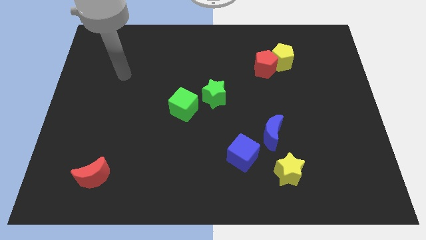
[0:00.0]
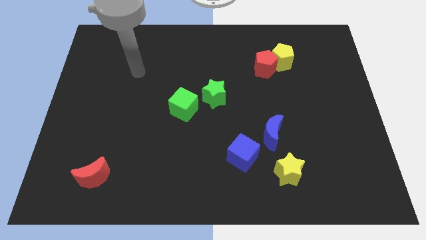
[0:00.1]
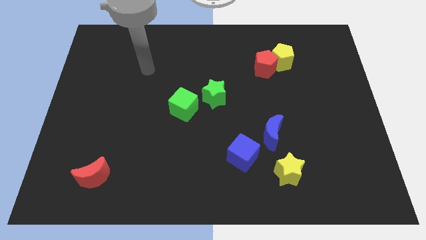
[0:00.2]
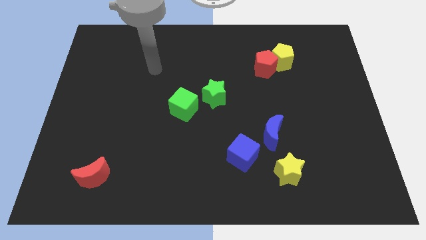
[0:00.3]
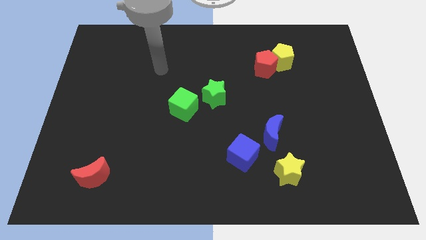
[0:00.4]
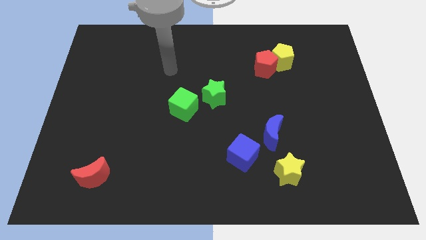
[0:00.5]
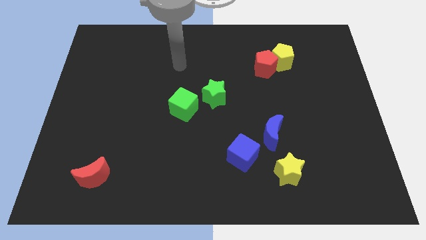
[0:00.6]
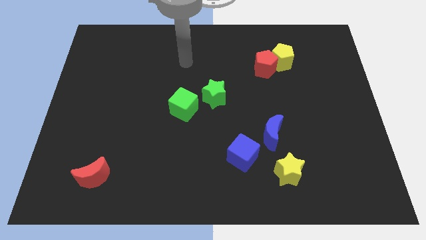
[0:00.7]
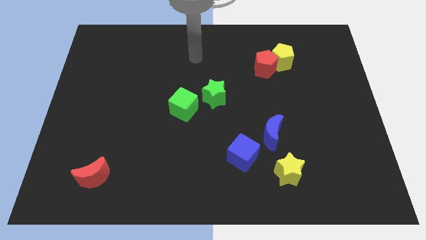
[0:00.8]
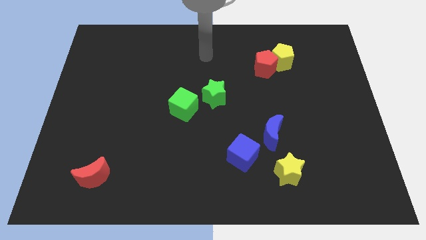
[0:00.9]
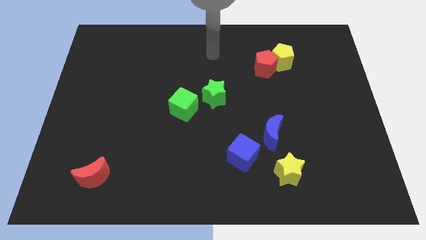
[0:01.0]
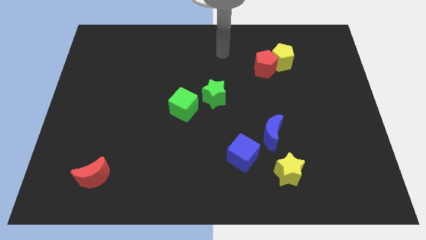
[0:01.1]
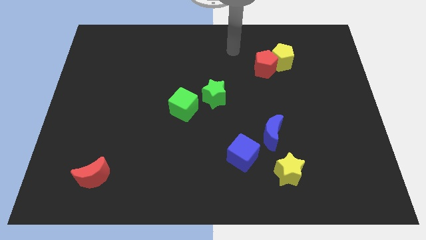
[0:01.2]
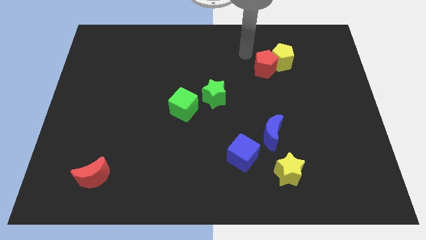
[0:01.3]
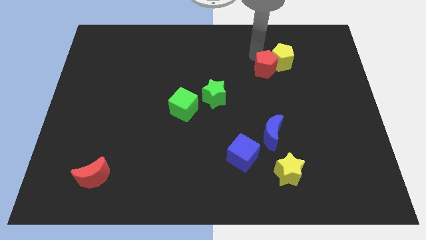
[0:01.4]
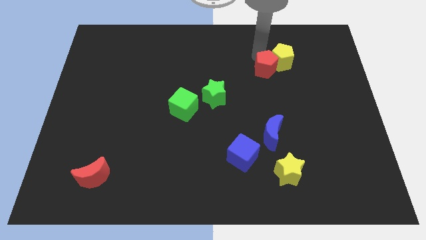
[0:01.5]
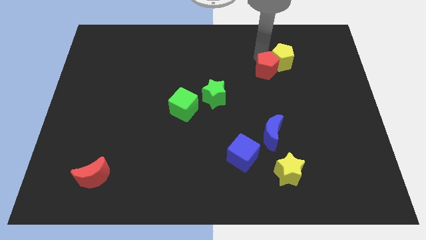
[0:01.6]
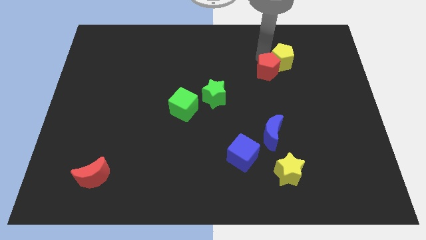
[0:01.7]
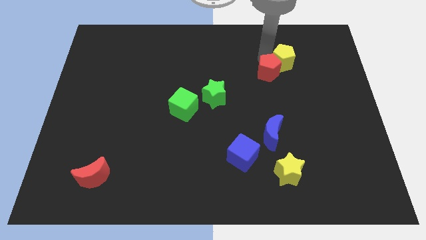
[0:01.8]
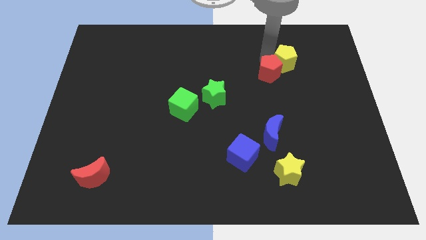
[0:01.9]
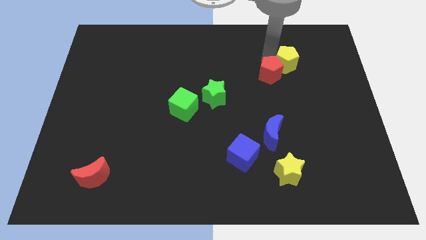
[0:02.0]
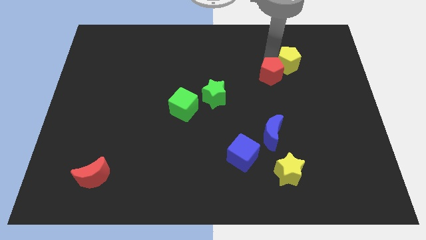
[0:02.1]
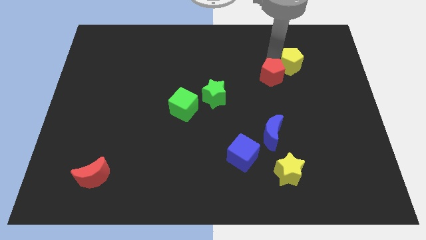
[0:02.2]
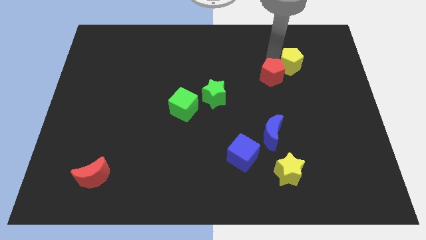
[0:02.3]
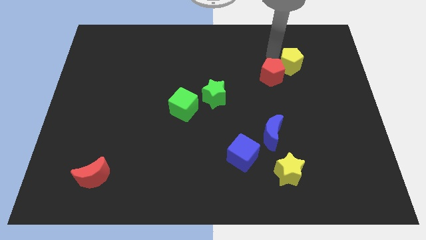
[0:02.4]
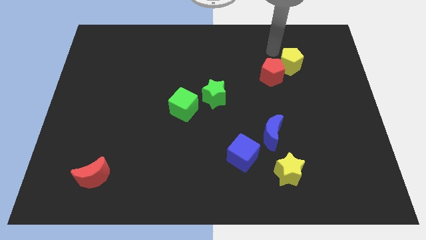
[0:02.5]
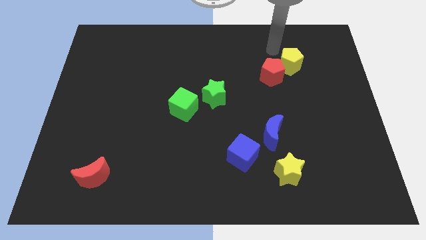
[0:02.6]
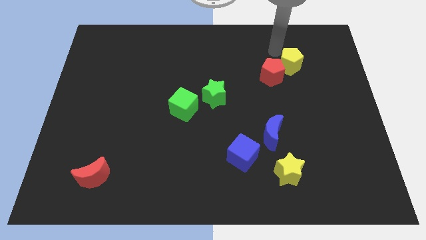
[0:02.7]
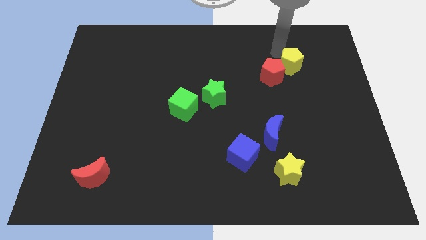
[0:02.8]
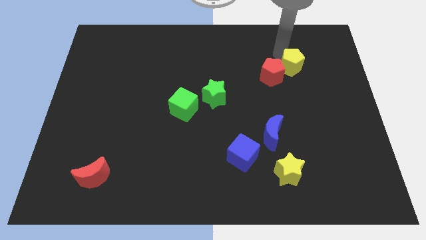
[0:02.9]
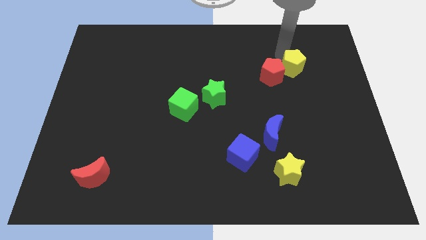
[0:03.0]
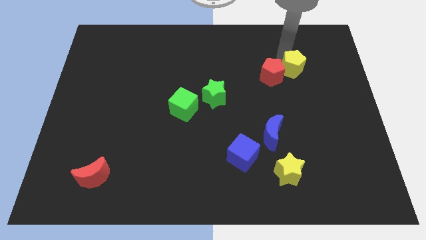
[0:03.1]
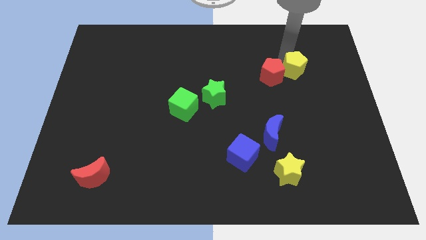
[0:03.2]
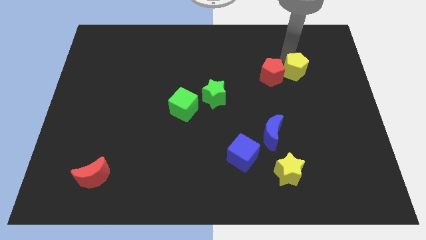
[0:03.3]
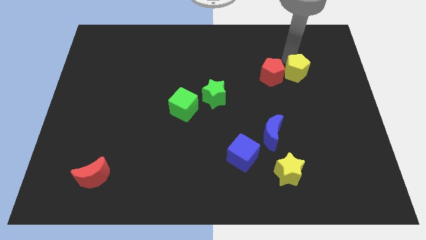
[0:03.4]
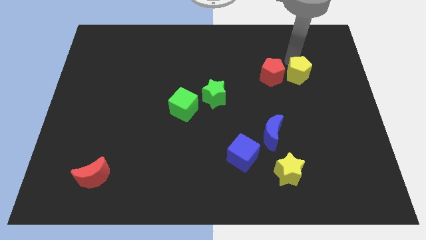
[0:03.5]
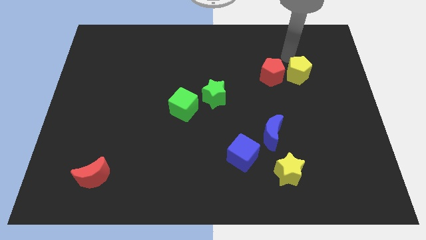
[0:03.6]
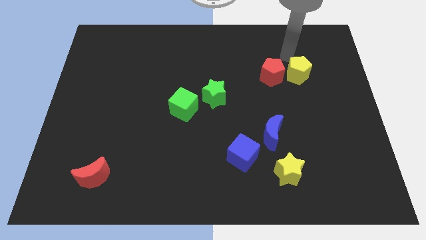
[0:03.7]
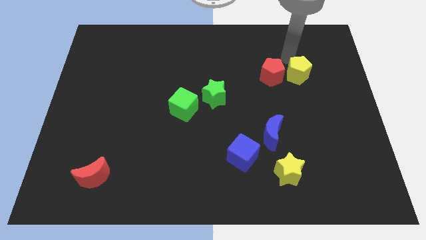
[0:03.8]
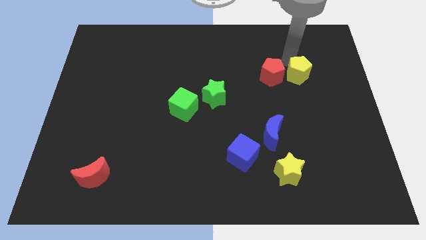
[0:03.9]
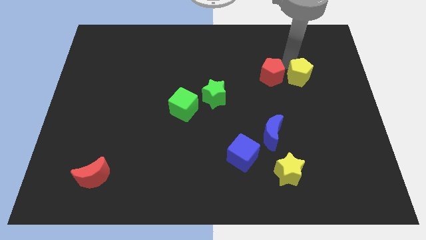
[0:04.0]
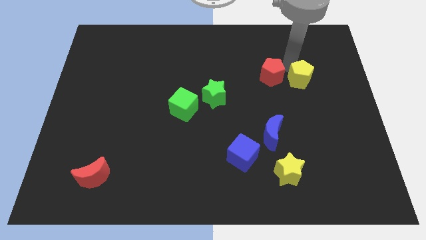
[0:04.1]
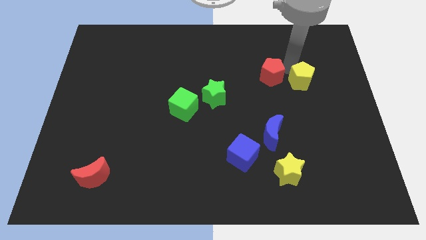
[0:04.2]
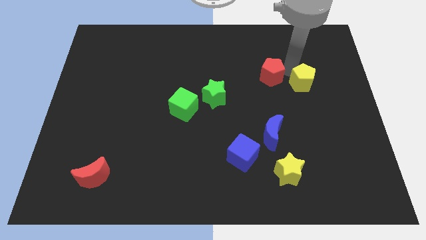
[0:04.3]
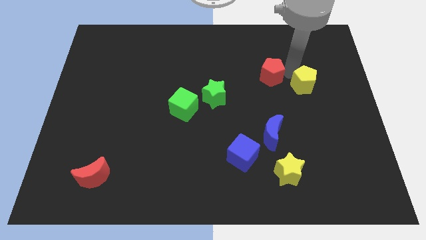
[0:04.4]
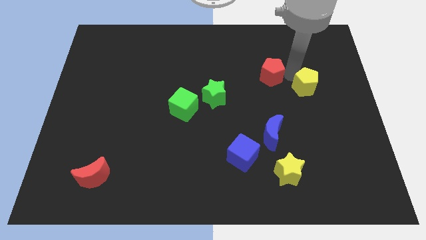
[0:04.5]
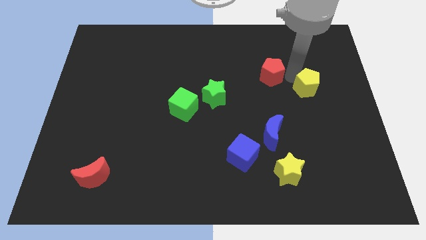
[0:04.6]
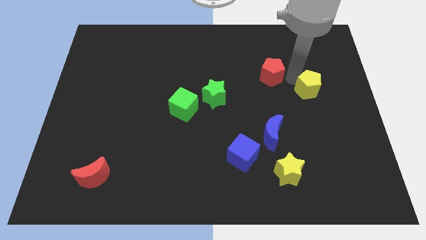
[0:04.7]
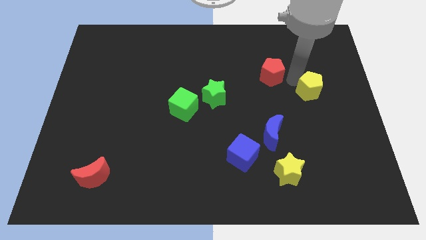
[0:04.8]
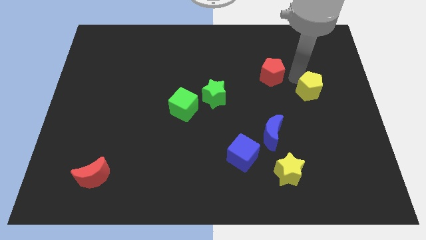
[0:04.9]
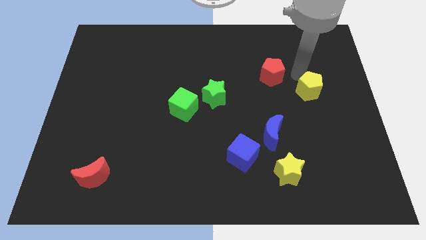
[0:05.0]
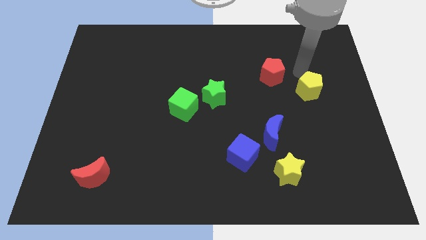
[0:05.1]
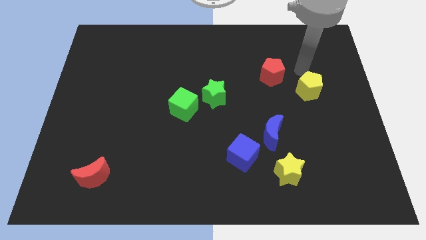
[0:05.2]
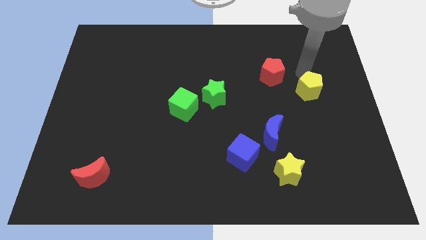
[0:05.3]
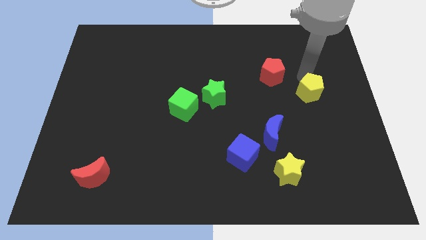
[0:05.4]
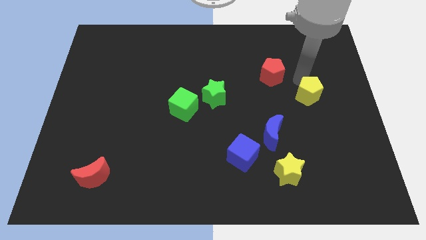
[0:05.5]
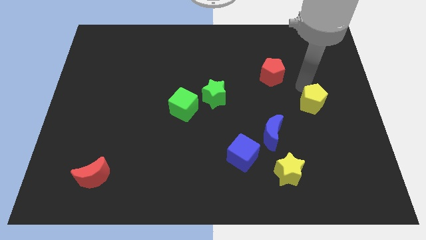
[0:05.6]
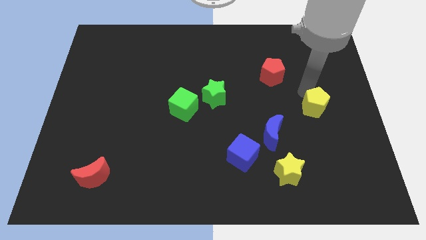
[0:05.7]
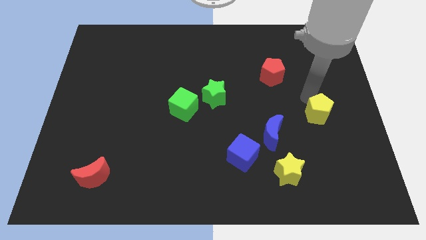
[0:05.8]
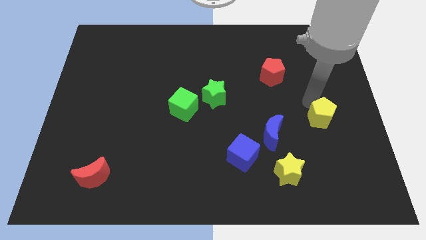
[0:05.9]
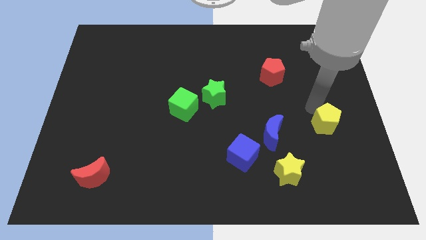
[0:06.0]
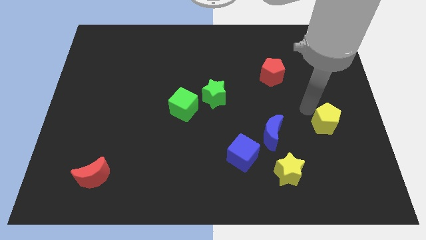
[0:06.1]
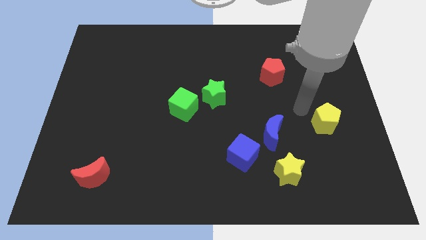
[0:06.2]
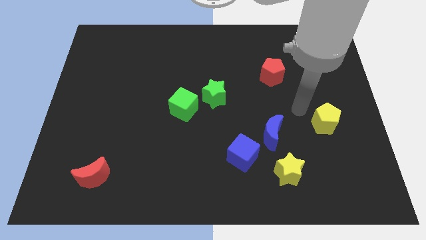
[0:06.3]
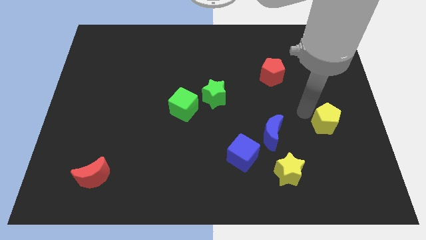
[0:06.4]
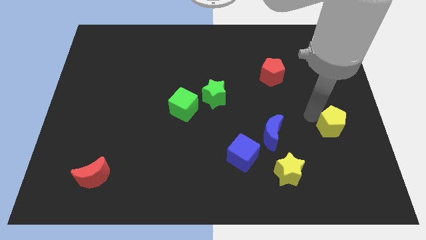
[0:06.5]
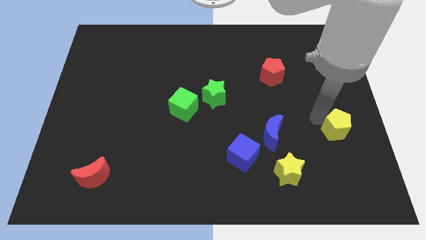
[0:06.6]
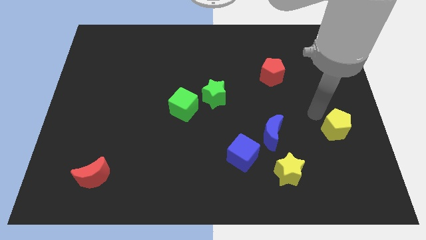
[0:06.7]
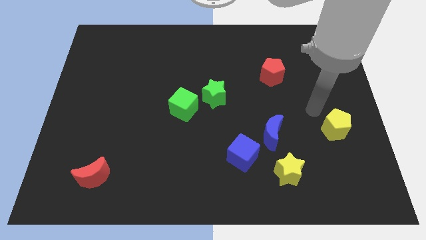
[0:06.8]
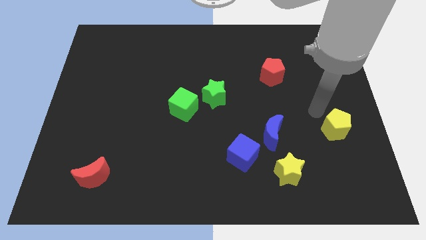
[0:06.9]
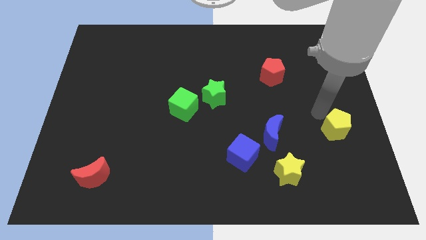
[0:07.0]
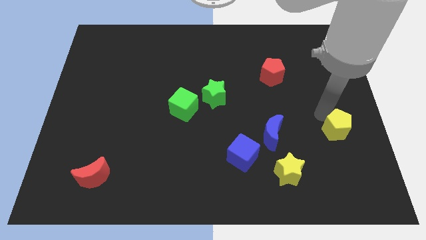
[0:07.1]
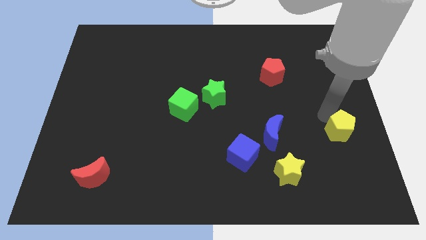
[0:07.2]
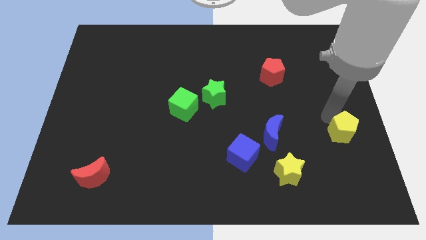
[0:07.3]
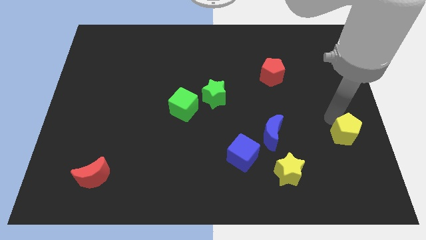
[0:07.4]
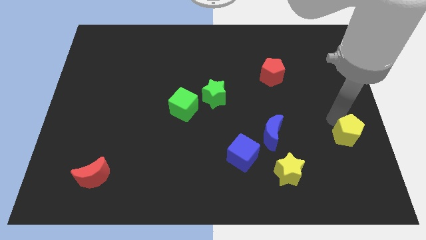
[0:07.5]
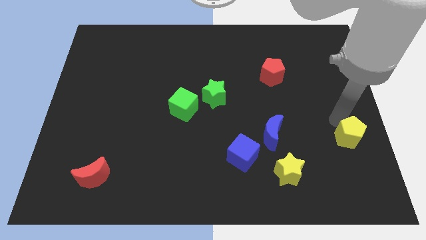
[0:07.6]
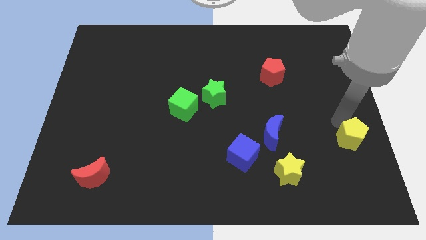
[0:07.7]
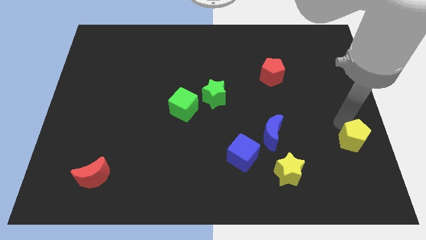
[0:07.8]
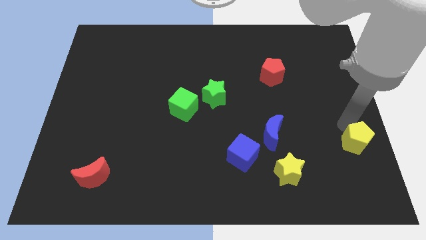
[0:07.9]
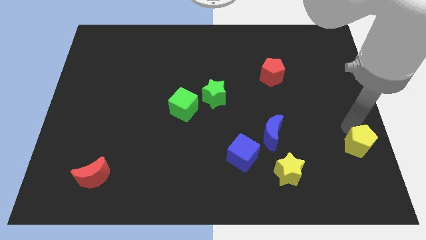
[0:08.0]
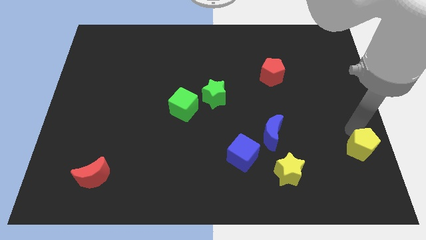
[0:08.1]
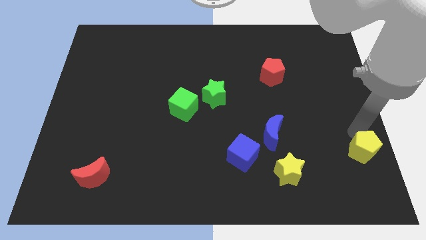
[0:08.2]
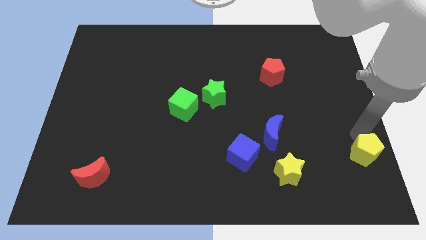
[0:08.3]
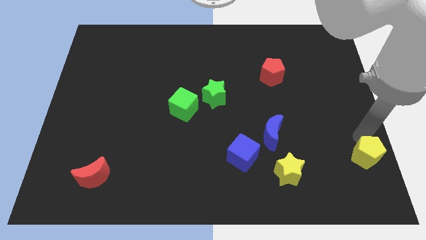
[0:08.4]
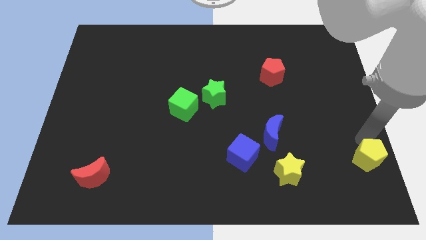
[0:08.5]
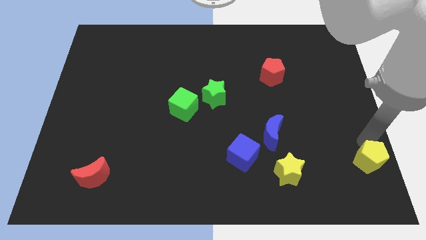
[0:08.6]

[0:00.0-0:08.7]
put the yellow pentagon to the lower right corner
